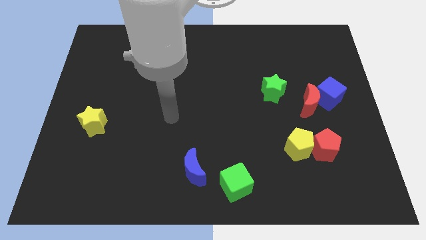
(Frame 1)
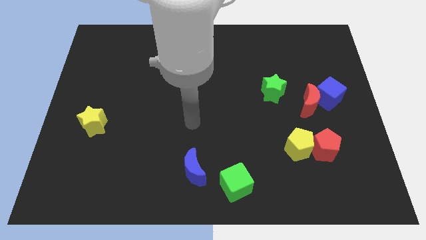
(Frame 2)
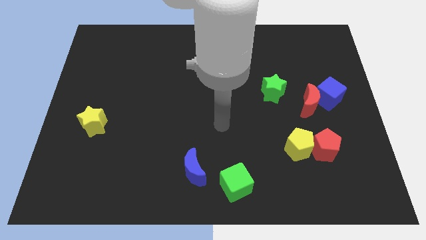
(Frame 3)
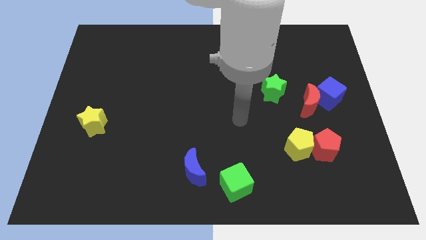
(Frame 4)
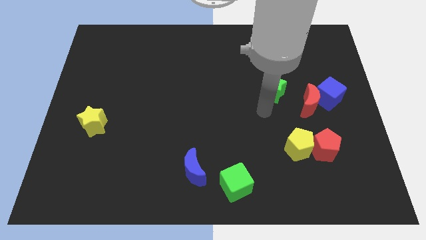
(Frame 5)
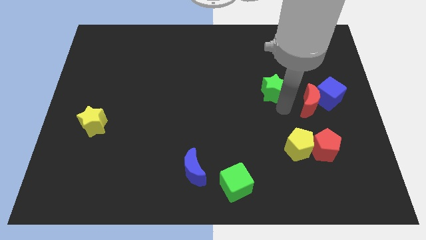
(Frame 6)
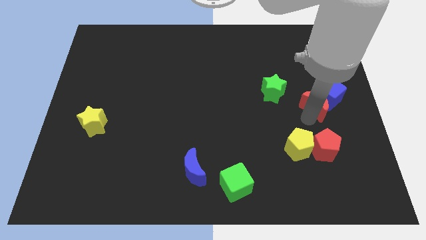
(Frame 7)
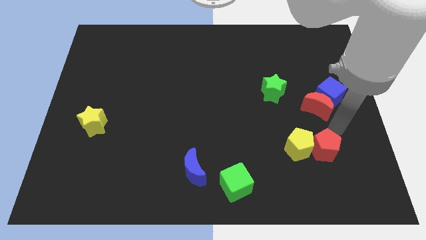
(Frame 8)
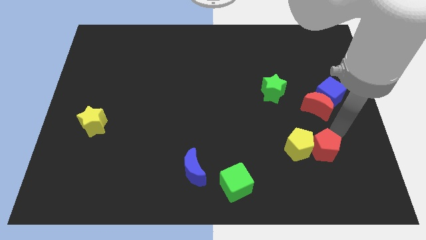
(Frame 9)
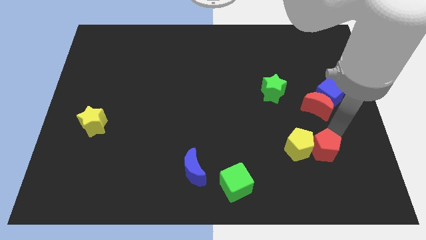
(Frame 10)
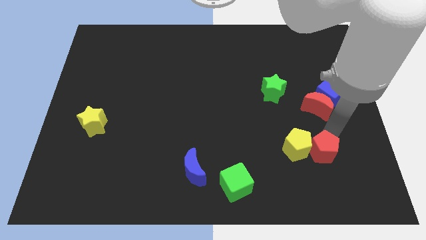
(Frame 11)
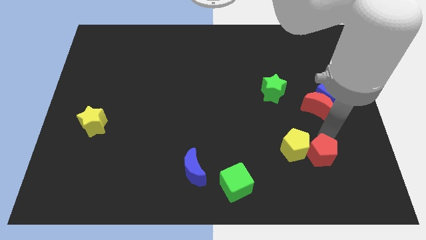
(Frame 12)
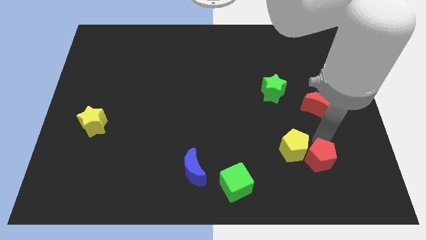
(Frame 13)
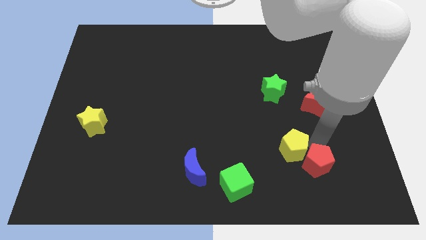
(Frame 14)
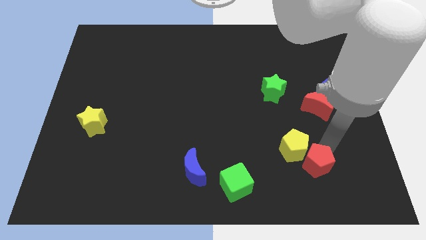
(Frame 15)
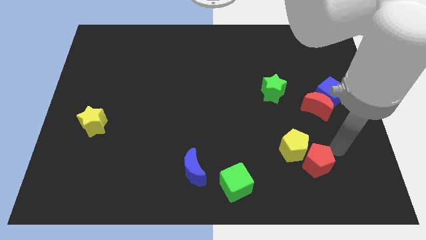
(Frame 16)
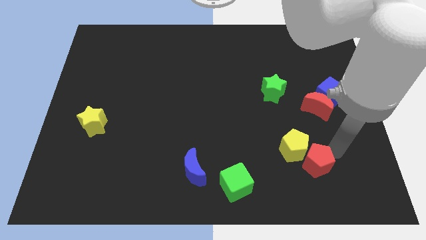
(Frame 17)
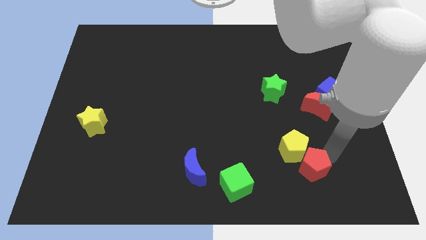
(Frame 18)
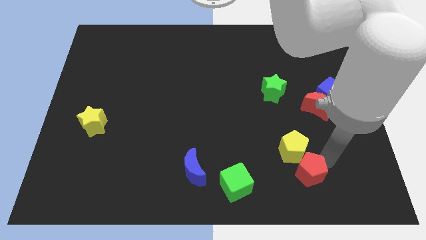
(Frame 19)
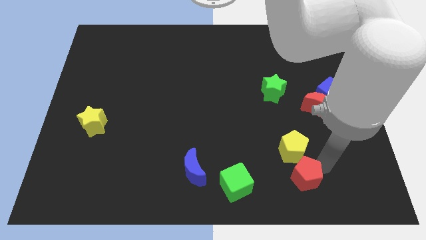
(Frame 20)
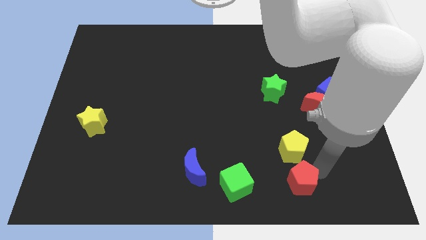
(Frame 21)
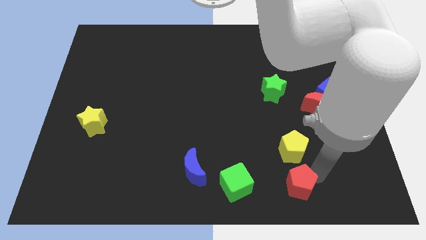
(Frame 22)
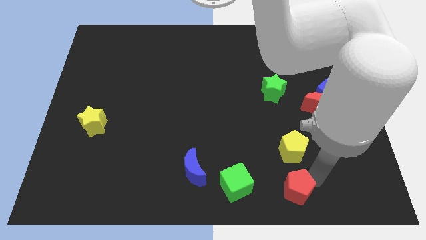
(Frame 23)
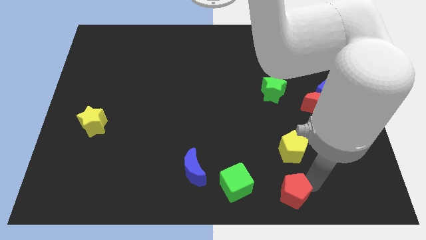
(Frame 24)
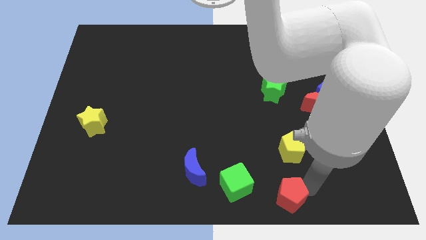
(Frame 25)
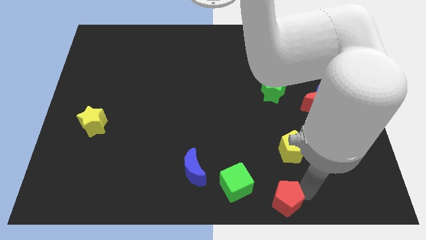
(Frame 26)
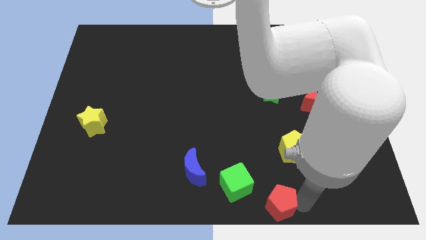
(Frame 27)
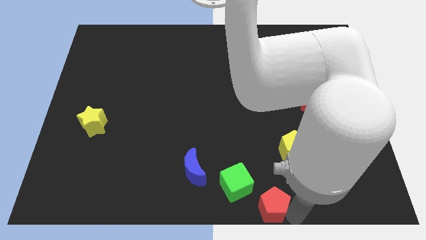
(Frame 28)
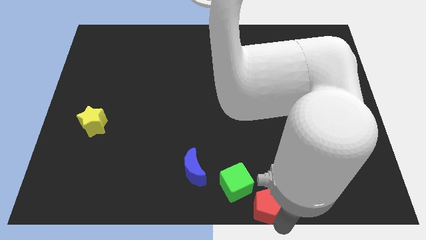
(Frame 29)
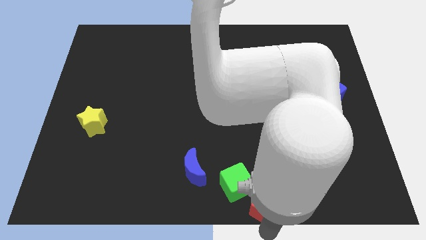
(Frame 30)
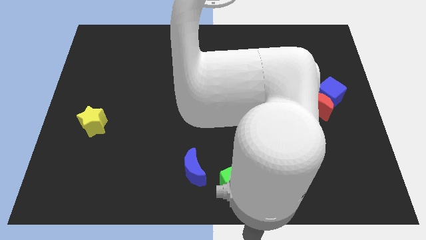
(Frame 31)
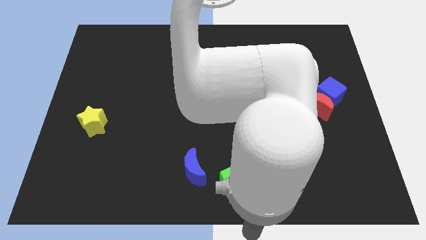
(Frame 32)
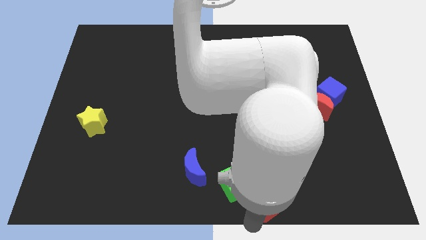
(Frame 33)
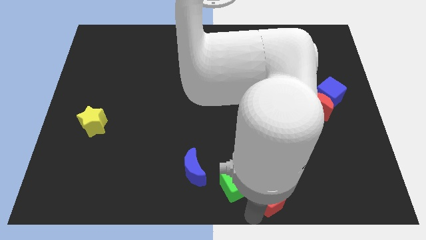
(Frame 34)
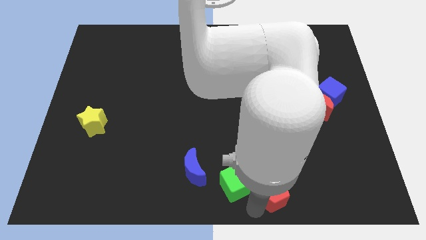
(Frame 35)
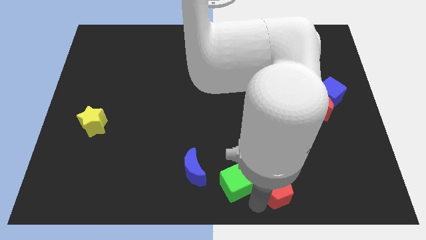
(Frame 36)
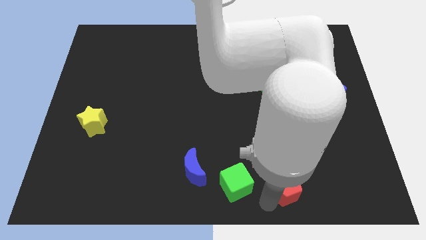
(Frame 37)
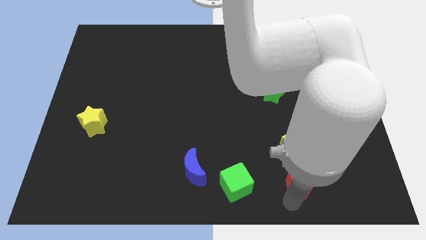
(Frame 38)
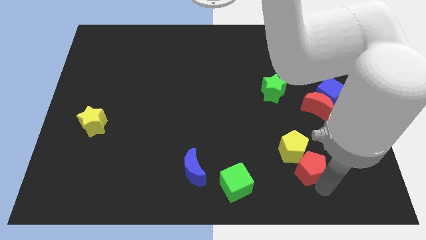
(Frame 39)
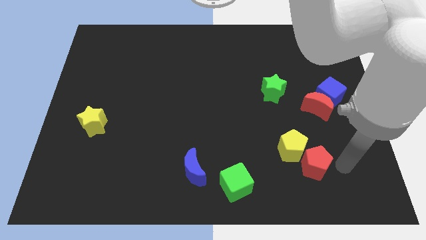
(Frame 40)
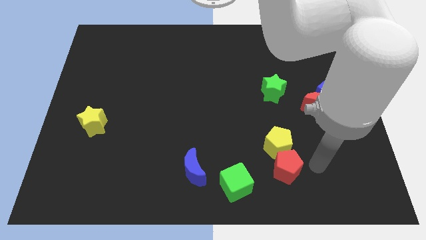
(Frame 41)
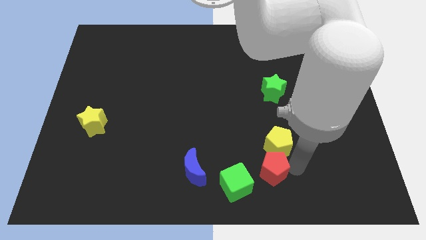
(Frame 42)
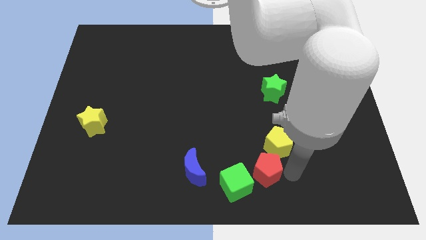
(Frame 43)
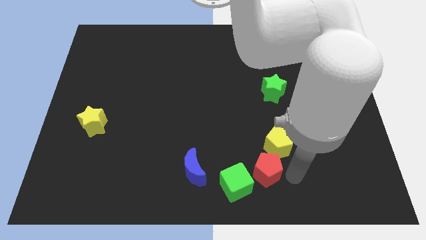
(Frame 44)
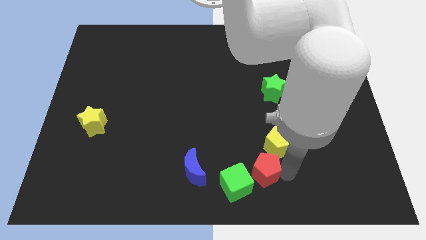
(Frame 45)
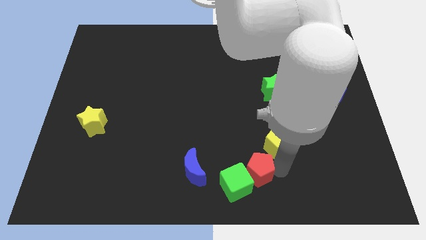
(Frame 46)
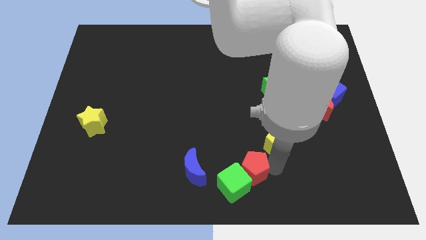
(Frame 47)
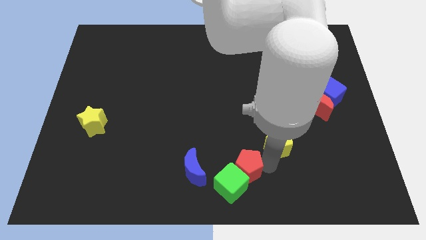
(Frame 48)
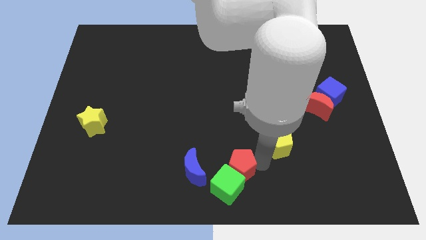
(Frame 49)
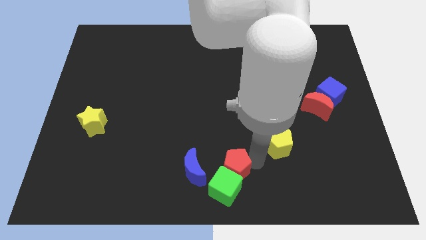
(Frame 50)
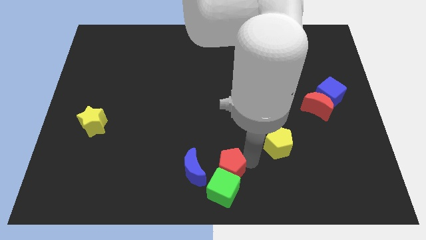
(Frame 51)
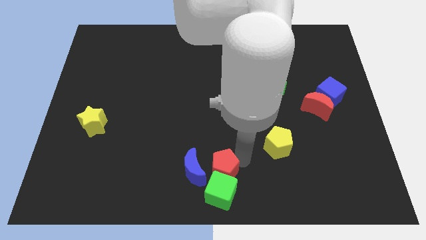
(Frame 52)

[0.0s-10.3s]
push the red pentagon next to the blue moon

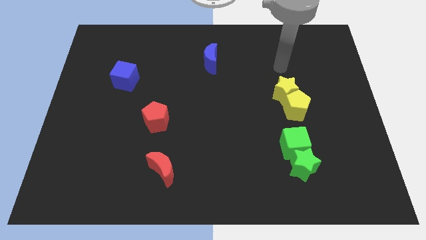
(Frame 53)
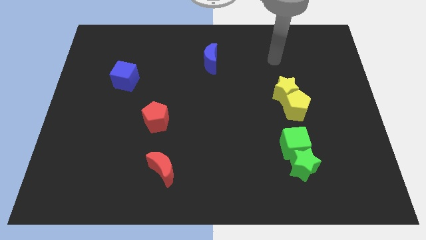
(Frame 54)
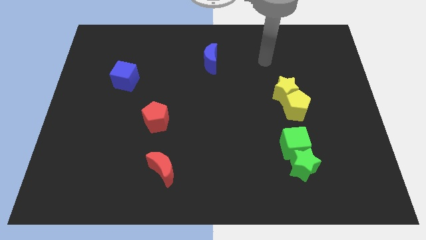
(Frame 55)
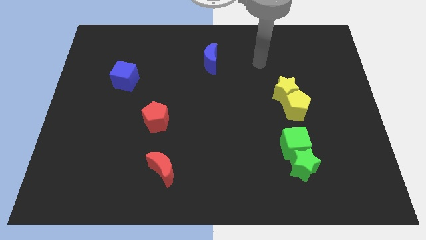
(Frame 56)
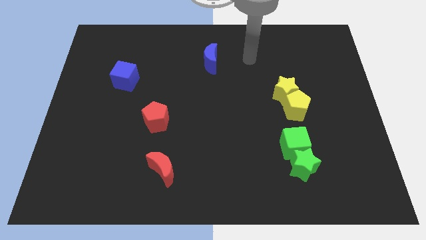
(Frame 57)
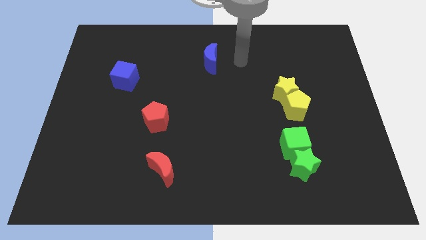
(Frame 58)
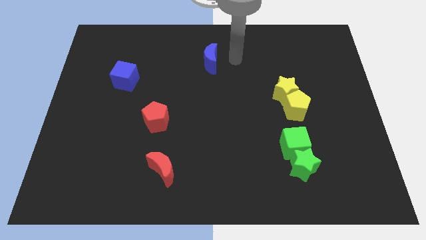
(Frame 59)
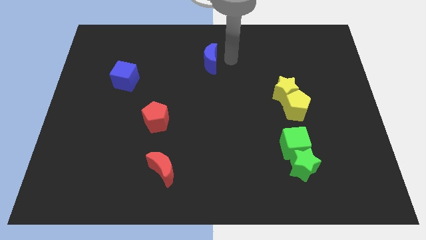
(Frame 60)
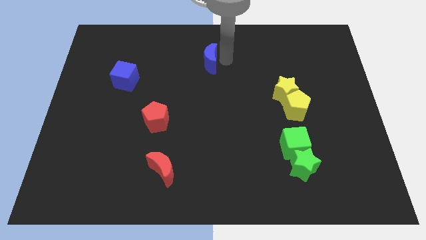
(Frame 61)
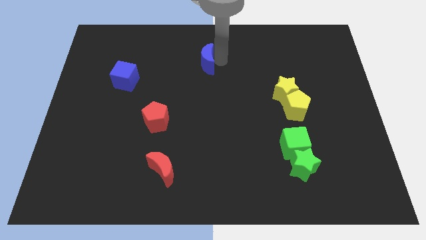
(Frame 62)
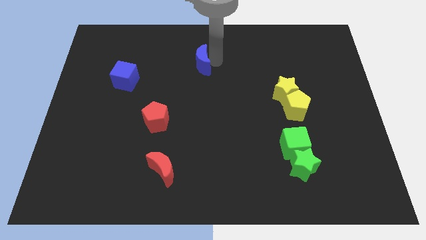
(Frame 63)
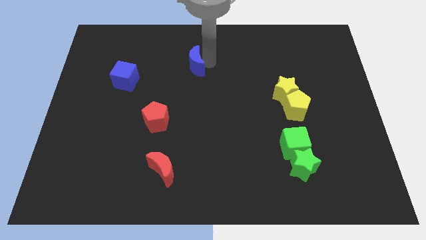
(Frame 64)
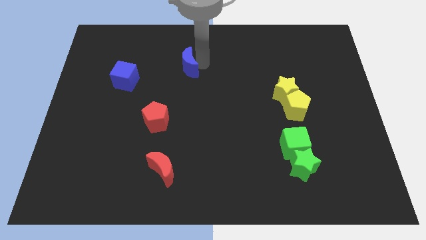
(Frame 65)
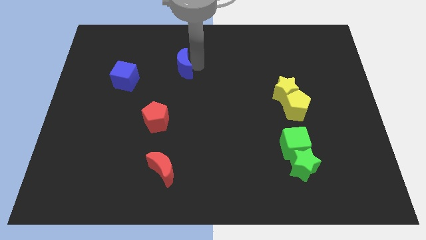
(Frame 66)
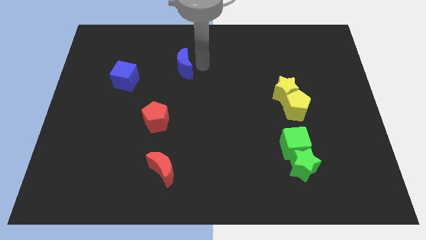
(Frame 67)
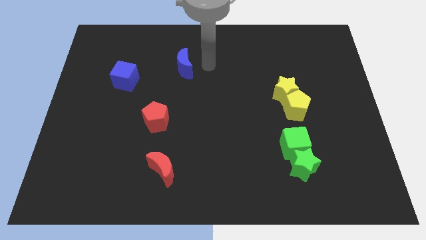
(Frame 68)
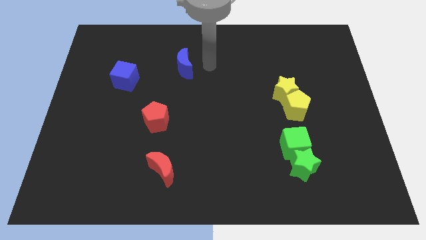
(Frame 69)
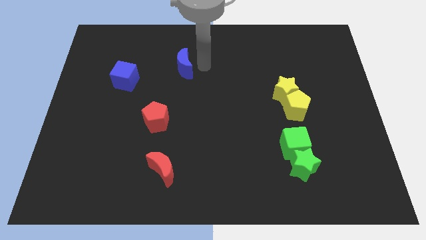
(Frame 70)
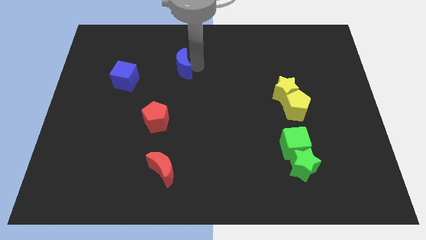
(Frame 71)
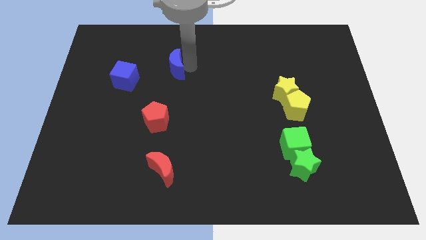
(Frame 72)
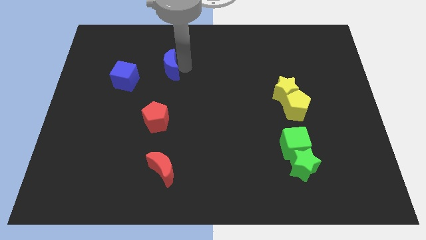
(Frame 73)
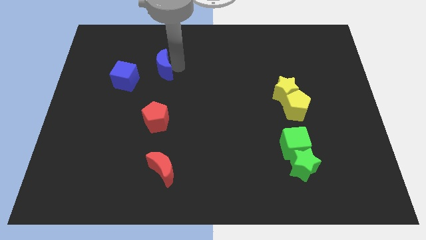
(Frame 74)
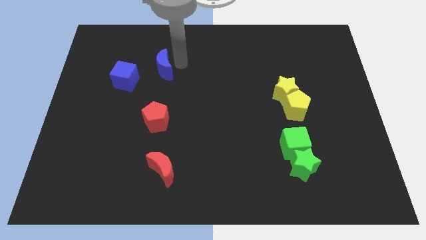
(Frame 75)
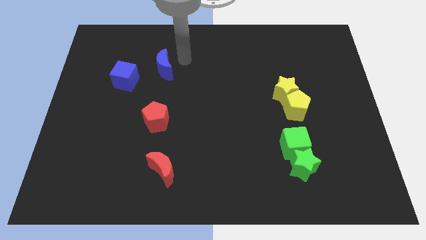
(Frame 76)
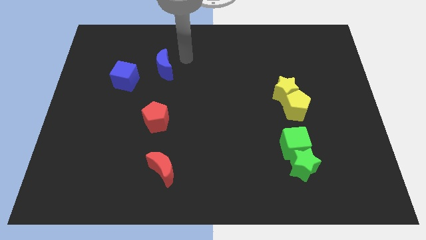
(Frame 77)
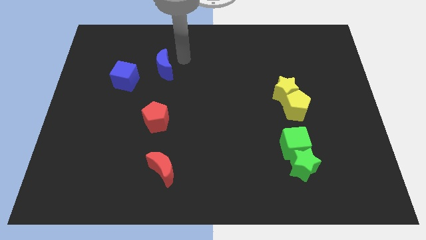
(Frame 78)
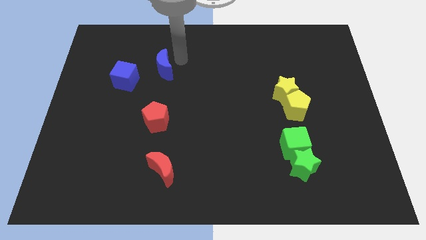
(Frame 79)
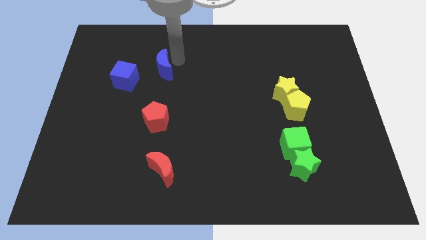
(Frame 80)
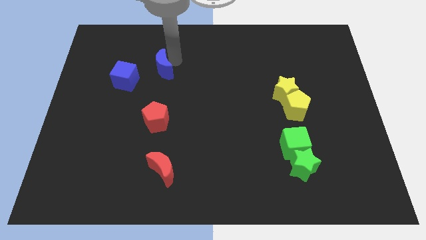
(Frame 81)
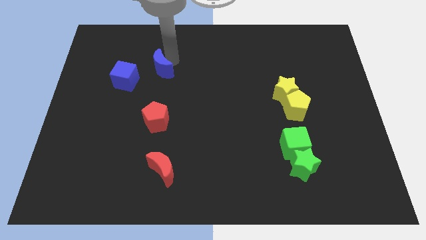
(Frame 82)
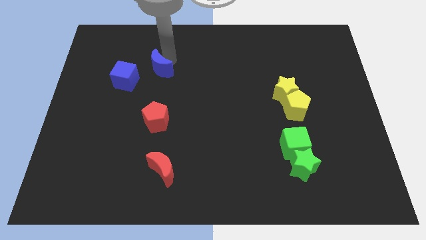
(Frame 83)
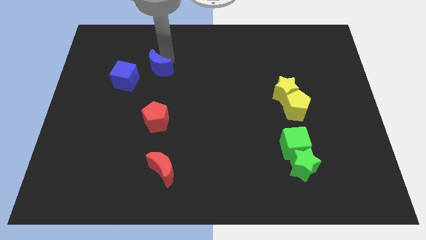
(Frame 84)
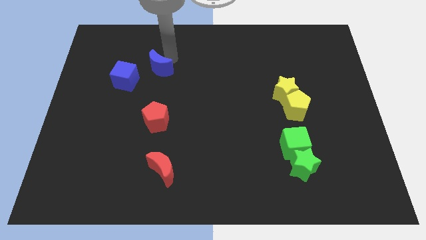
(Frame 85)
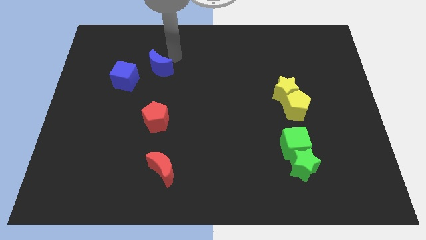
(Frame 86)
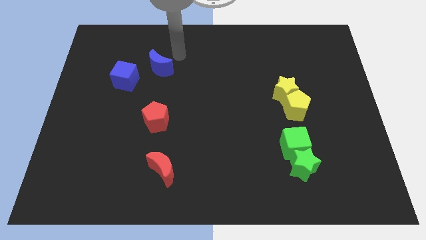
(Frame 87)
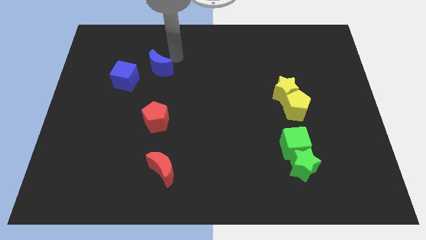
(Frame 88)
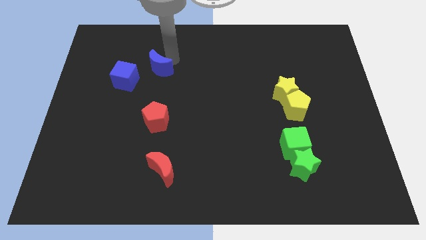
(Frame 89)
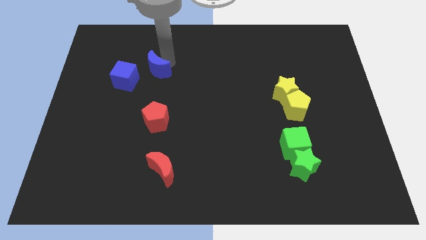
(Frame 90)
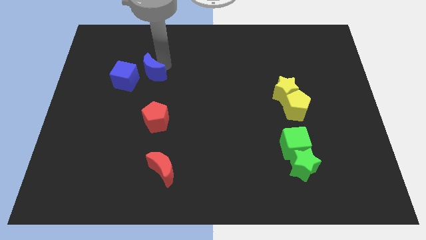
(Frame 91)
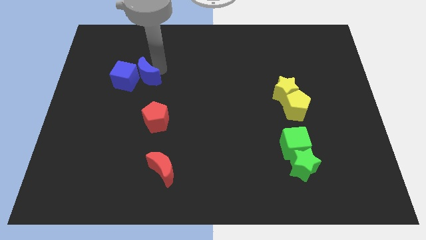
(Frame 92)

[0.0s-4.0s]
push the blue moon close to the blue cube
